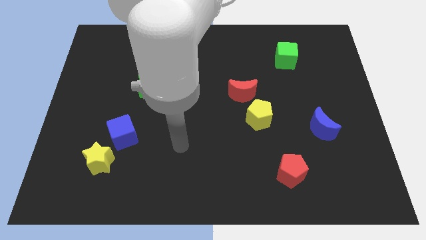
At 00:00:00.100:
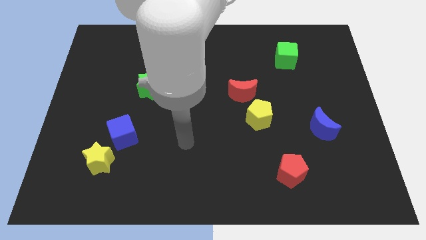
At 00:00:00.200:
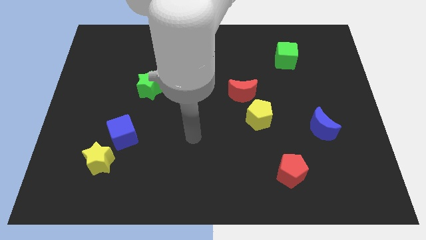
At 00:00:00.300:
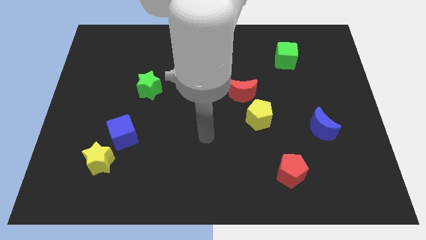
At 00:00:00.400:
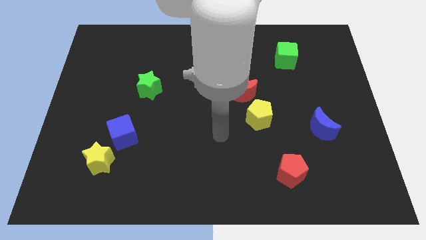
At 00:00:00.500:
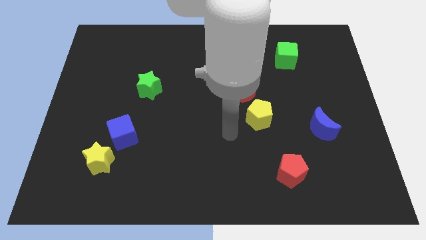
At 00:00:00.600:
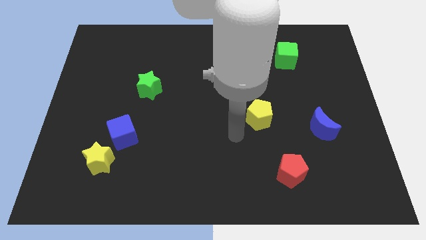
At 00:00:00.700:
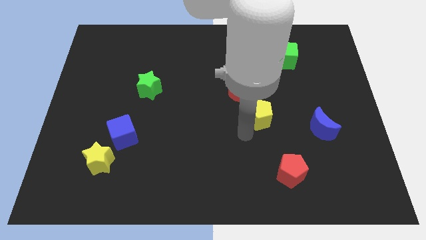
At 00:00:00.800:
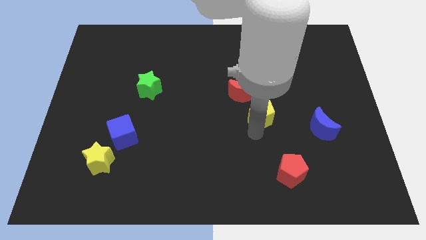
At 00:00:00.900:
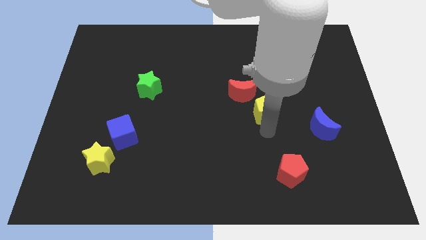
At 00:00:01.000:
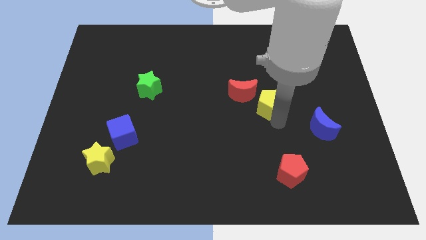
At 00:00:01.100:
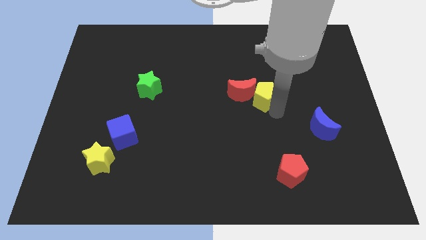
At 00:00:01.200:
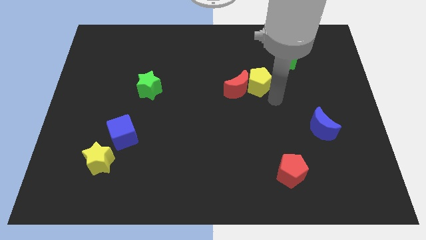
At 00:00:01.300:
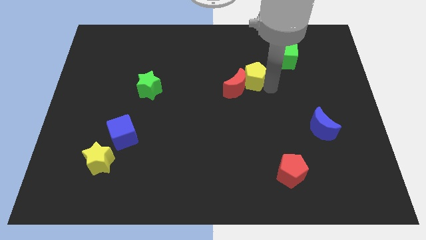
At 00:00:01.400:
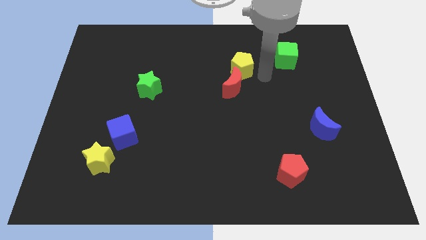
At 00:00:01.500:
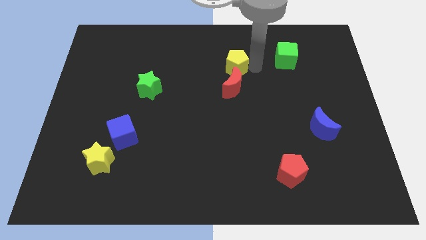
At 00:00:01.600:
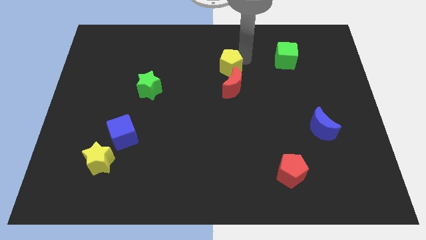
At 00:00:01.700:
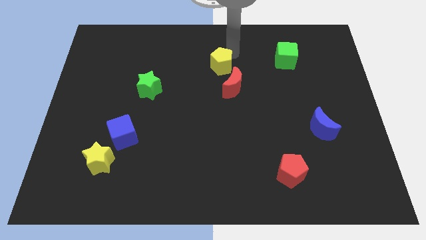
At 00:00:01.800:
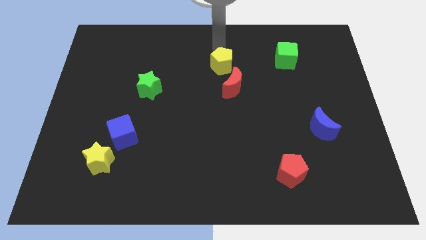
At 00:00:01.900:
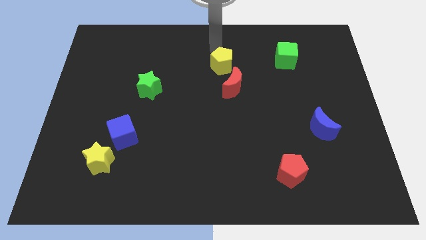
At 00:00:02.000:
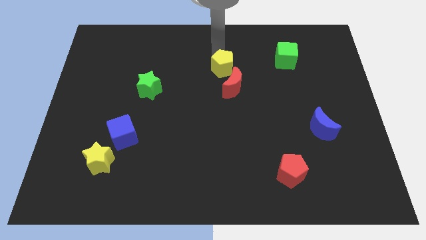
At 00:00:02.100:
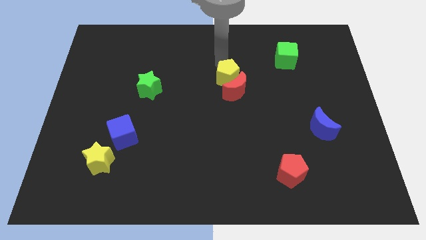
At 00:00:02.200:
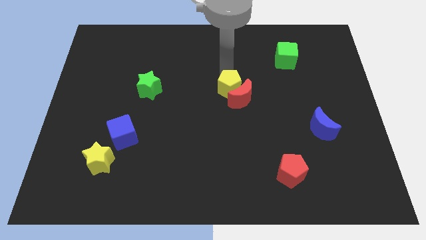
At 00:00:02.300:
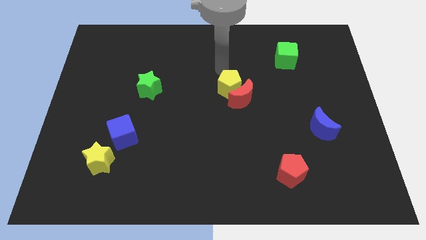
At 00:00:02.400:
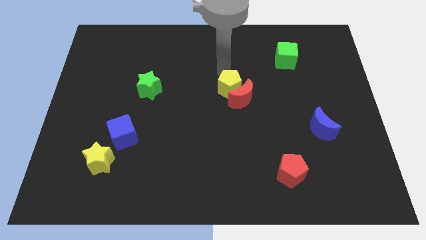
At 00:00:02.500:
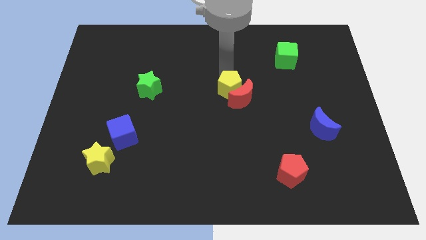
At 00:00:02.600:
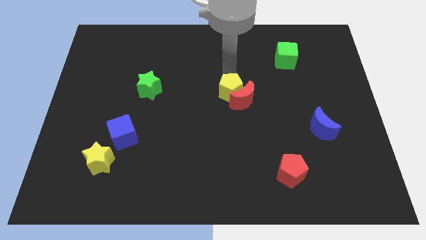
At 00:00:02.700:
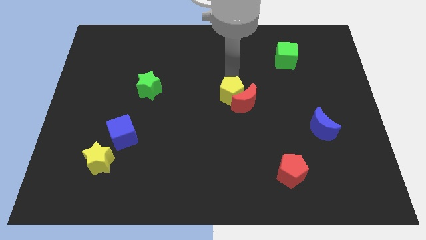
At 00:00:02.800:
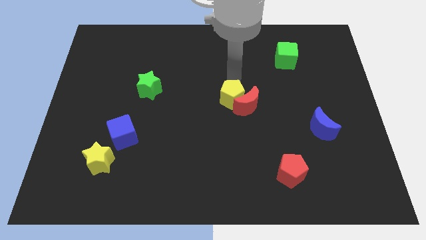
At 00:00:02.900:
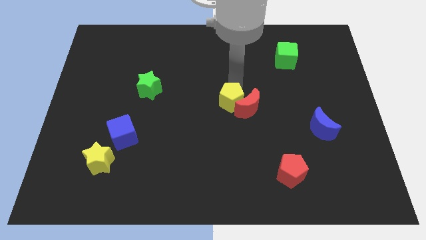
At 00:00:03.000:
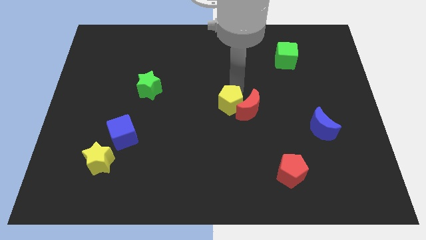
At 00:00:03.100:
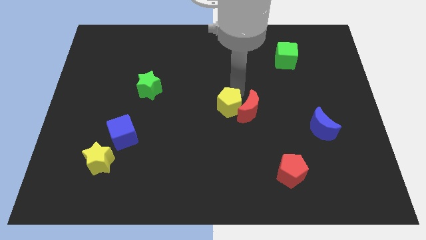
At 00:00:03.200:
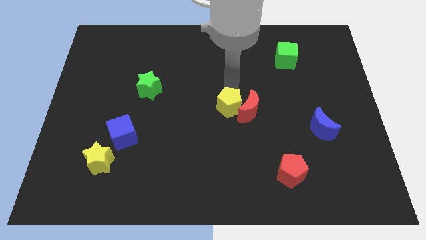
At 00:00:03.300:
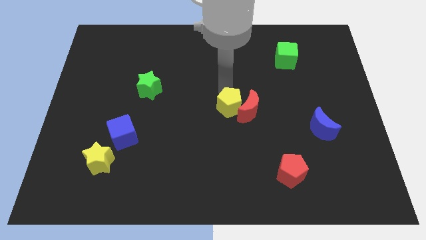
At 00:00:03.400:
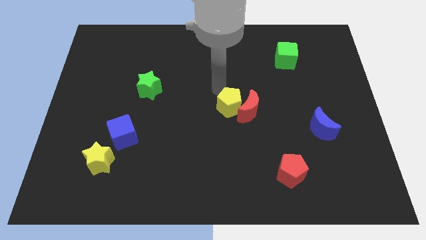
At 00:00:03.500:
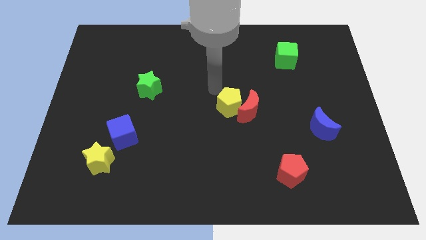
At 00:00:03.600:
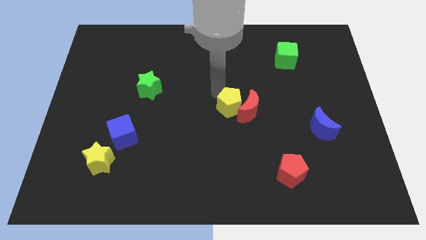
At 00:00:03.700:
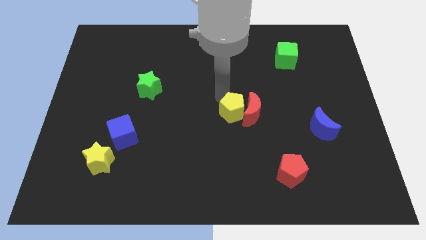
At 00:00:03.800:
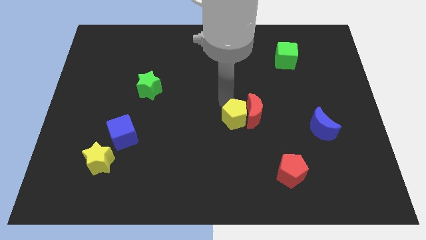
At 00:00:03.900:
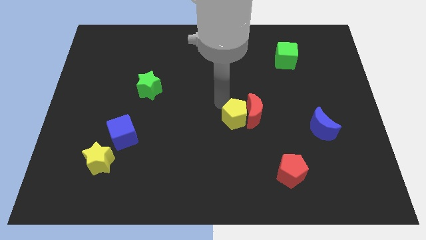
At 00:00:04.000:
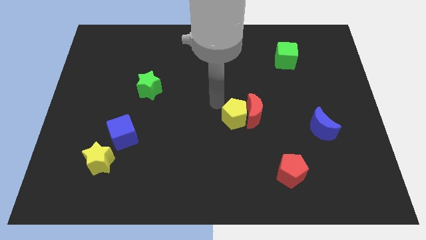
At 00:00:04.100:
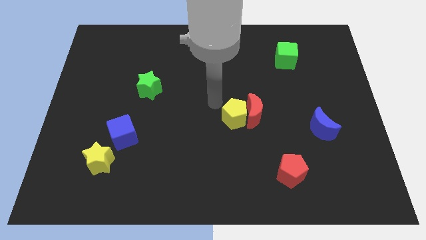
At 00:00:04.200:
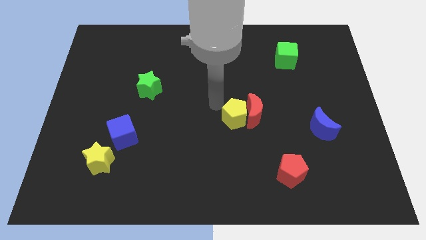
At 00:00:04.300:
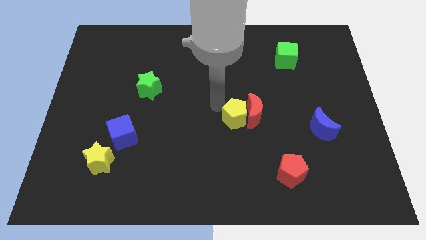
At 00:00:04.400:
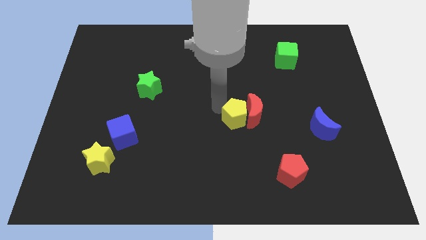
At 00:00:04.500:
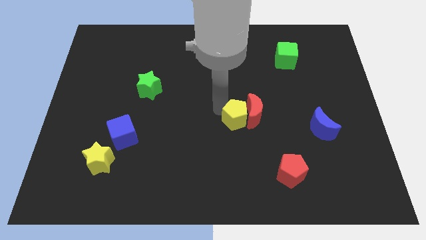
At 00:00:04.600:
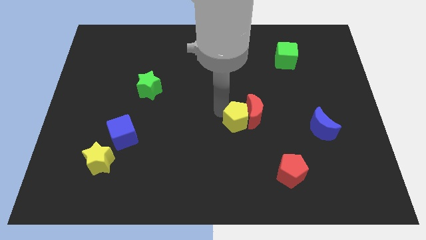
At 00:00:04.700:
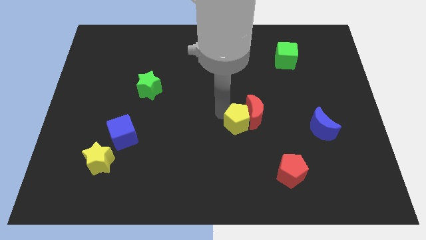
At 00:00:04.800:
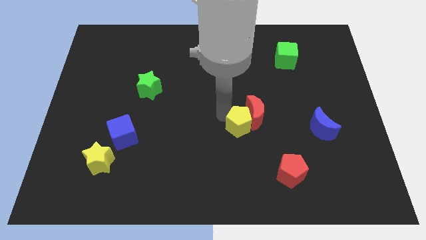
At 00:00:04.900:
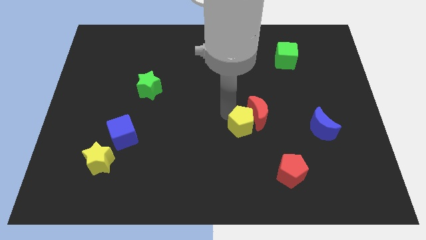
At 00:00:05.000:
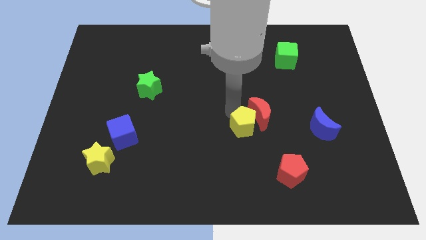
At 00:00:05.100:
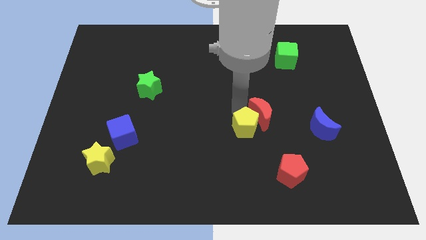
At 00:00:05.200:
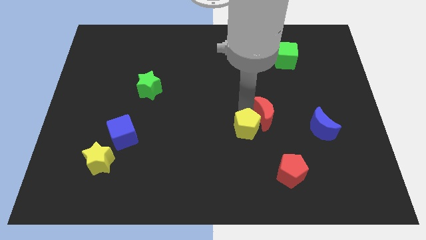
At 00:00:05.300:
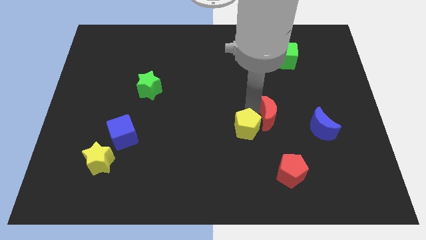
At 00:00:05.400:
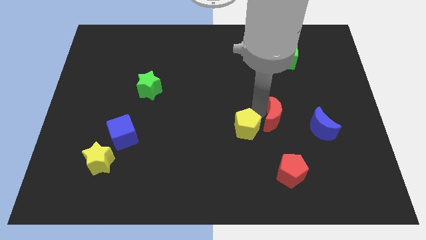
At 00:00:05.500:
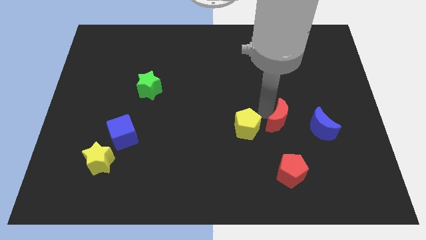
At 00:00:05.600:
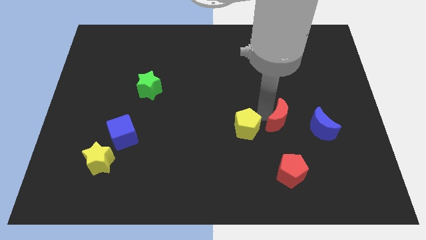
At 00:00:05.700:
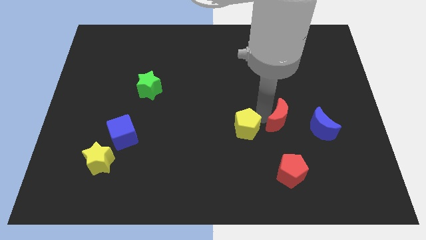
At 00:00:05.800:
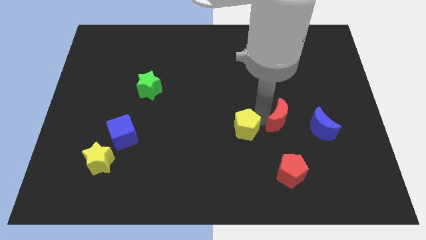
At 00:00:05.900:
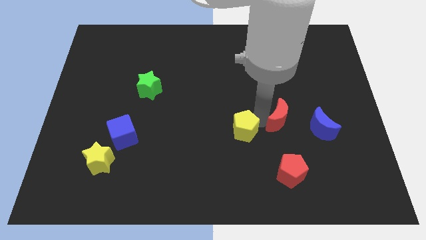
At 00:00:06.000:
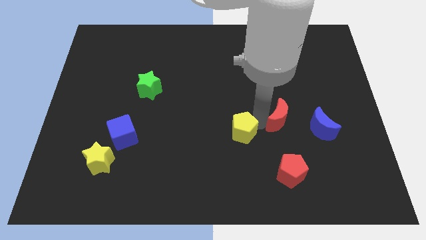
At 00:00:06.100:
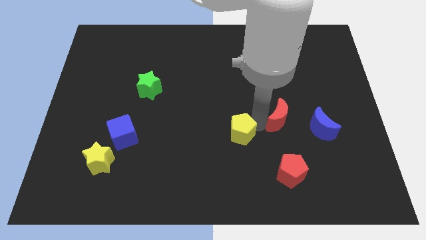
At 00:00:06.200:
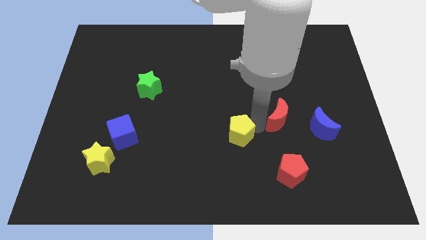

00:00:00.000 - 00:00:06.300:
slightly push the yellow pentagon downwards and left

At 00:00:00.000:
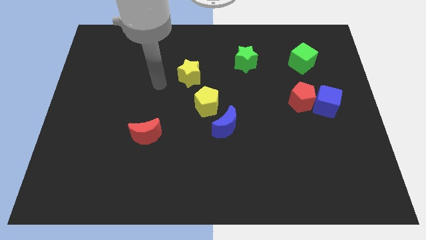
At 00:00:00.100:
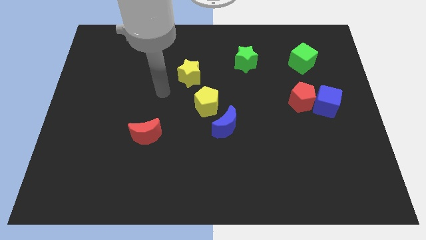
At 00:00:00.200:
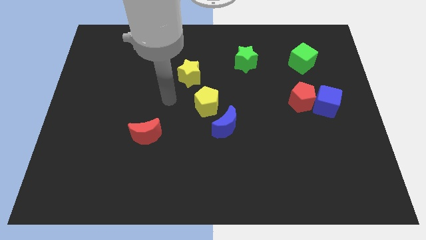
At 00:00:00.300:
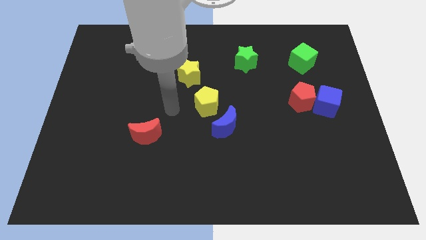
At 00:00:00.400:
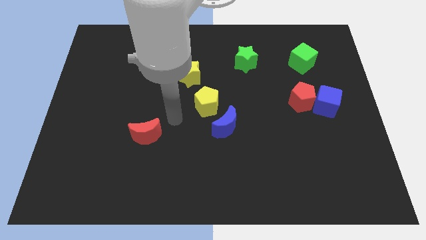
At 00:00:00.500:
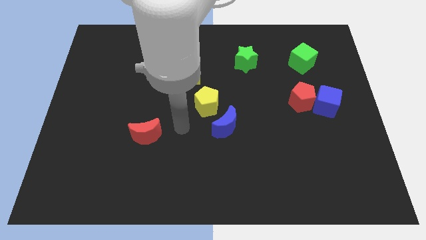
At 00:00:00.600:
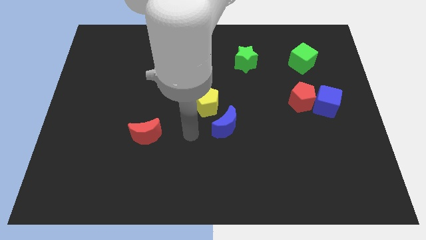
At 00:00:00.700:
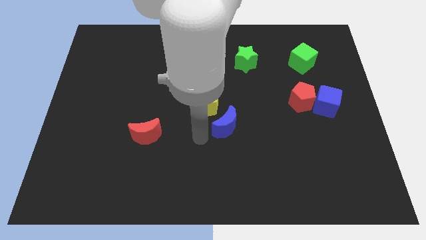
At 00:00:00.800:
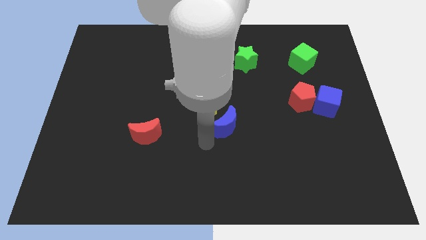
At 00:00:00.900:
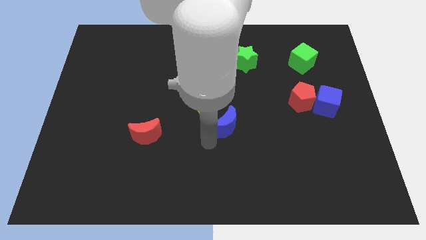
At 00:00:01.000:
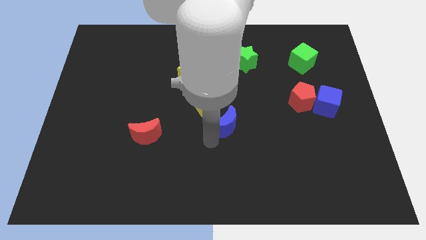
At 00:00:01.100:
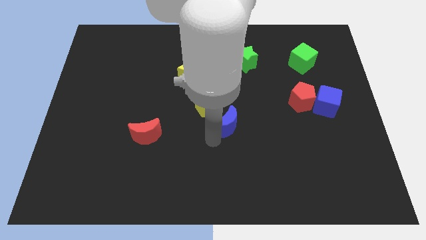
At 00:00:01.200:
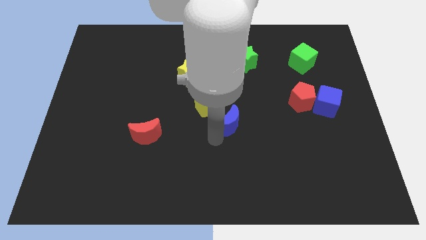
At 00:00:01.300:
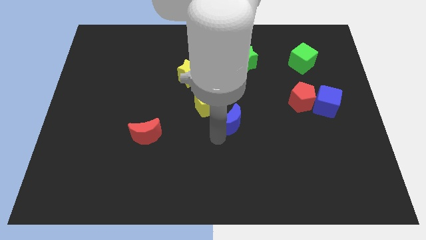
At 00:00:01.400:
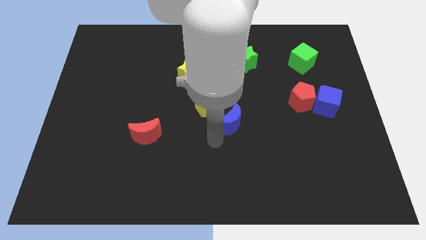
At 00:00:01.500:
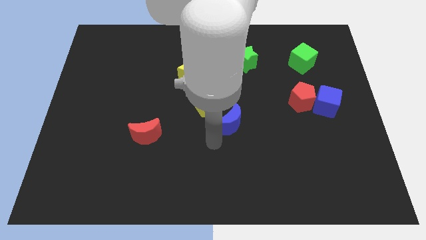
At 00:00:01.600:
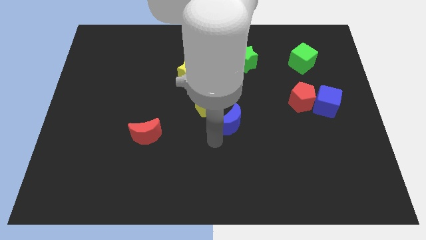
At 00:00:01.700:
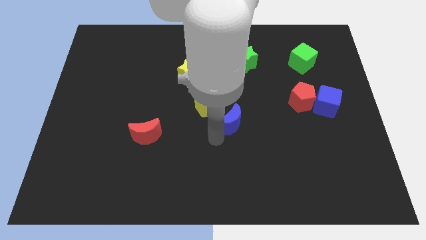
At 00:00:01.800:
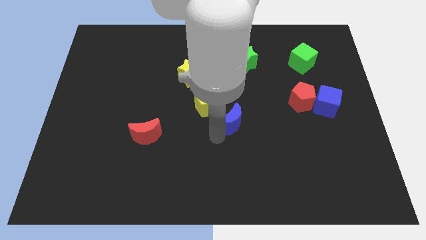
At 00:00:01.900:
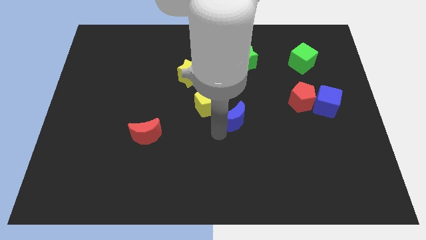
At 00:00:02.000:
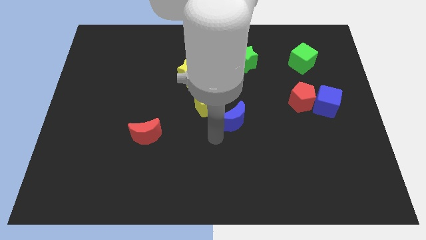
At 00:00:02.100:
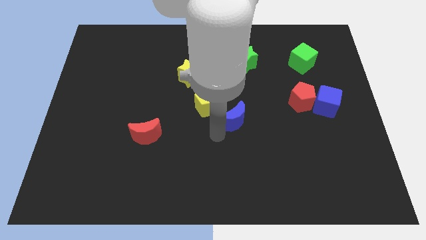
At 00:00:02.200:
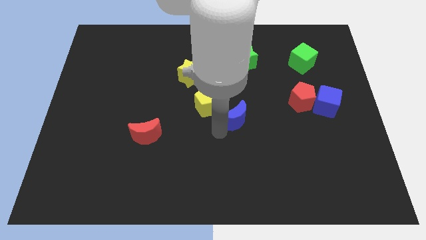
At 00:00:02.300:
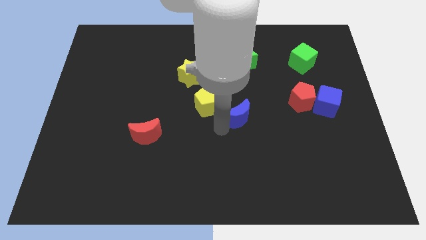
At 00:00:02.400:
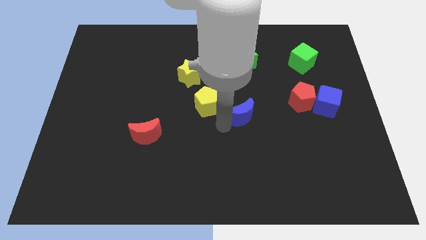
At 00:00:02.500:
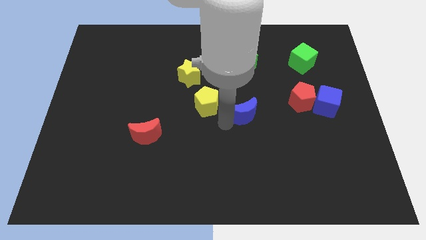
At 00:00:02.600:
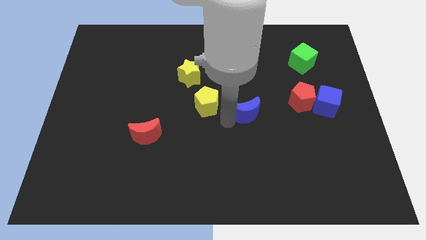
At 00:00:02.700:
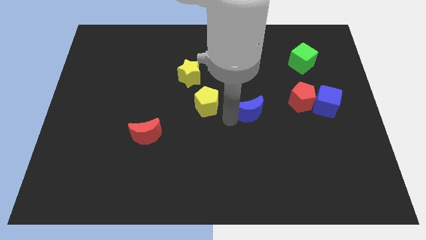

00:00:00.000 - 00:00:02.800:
move the blue moon a little upwards and to the right
